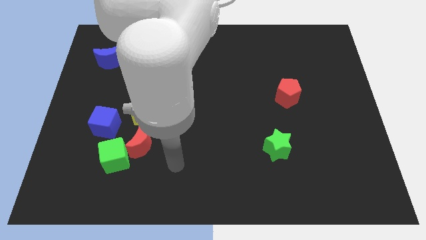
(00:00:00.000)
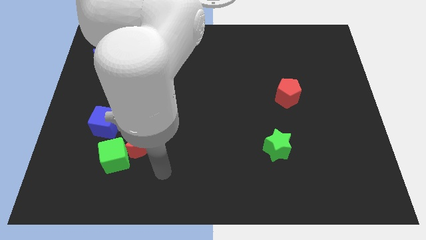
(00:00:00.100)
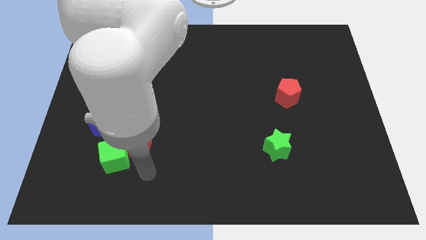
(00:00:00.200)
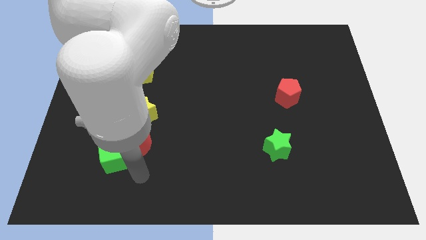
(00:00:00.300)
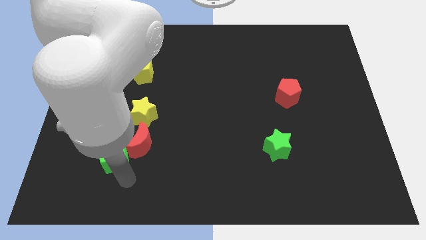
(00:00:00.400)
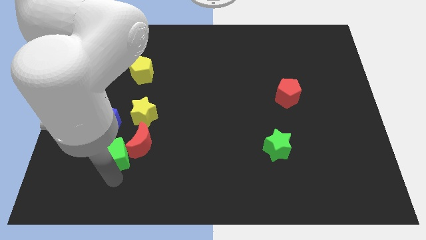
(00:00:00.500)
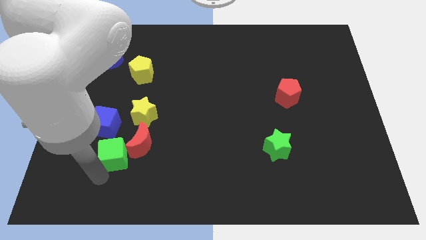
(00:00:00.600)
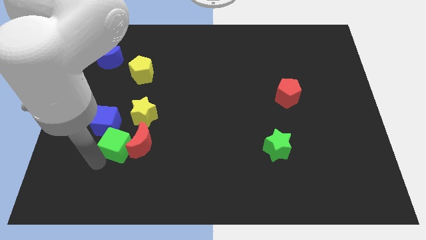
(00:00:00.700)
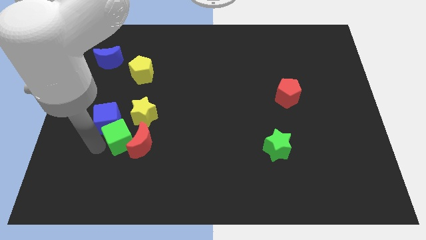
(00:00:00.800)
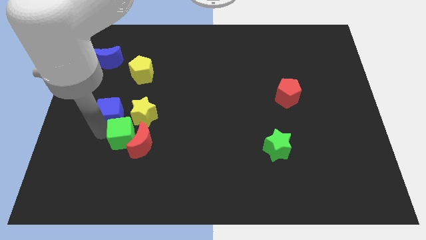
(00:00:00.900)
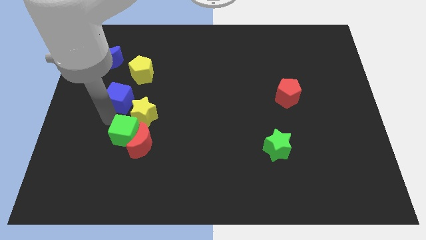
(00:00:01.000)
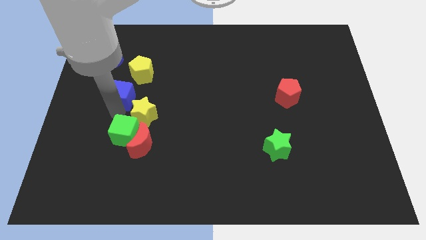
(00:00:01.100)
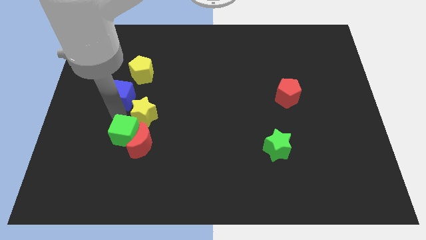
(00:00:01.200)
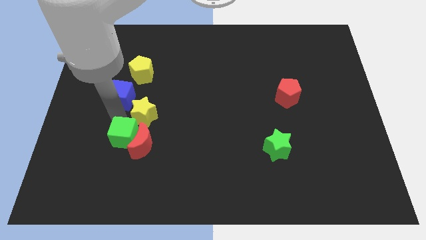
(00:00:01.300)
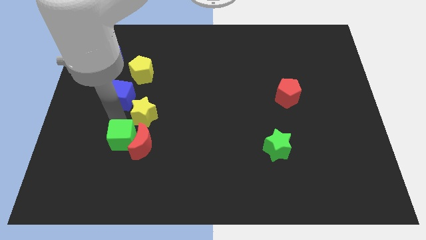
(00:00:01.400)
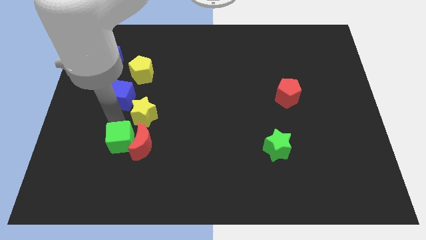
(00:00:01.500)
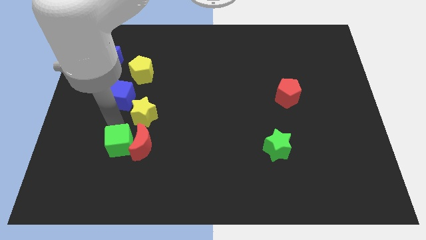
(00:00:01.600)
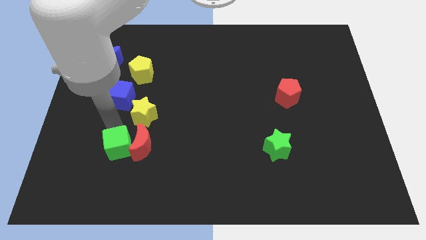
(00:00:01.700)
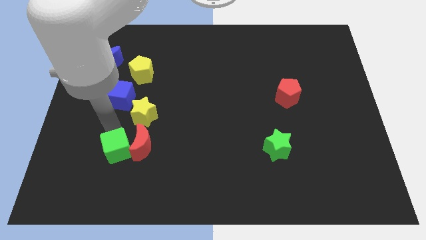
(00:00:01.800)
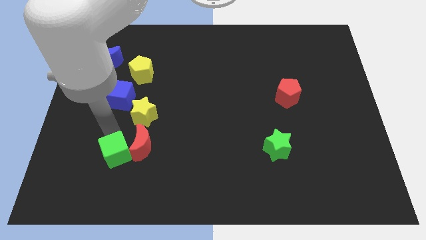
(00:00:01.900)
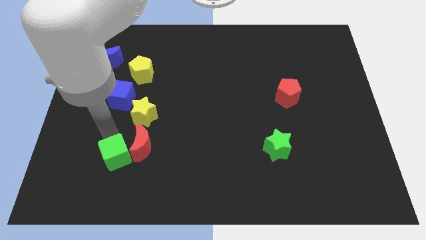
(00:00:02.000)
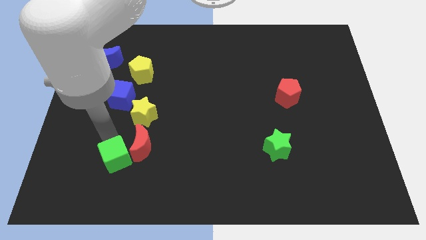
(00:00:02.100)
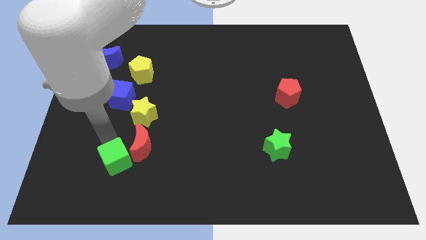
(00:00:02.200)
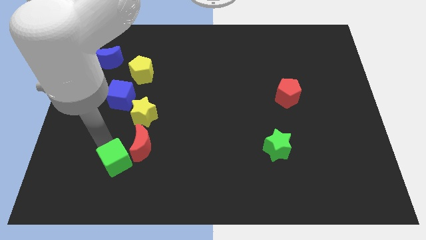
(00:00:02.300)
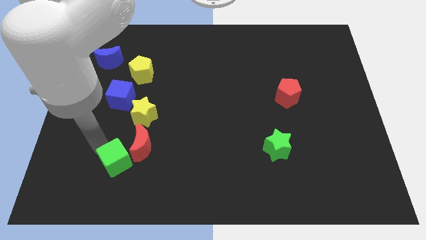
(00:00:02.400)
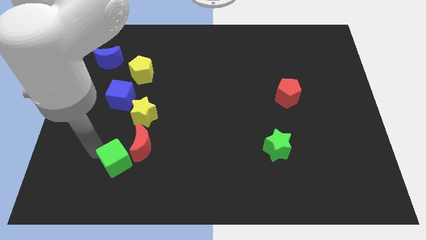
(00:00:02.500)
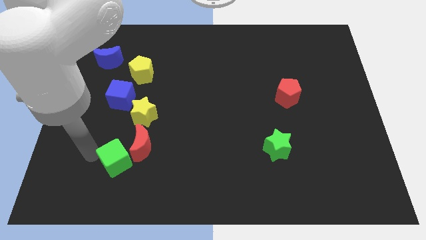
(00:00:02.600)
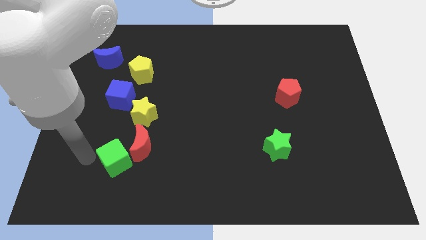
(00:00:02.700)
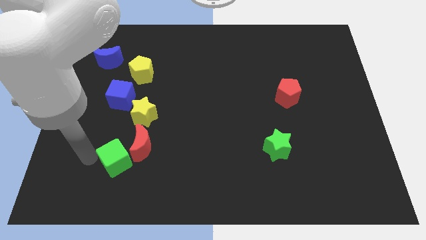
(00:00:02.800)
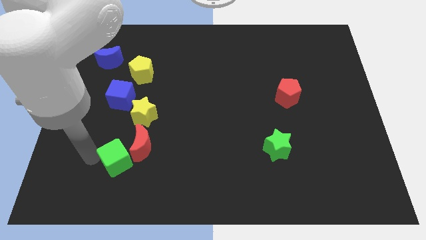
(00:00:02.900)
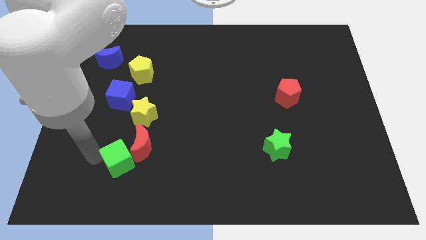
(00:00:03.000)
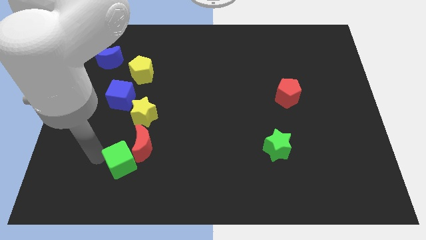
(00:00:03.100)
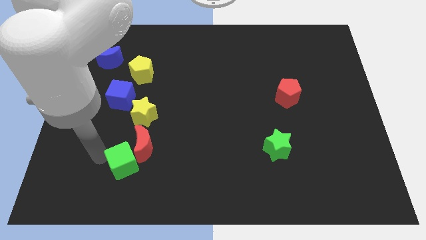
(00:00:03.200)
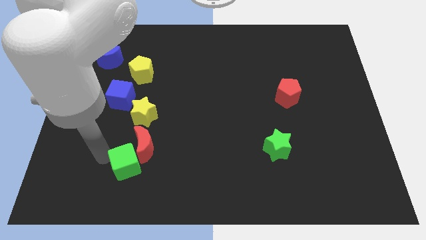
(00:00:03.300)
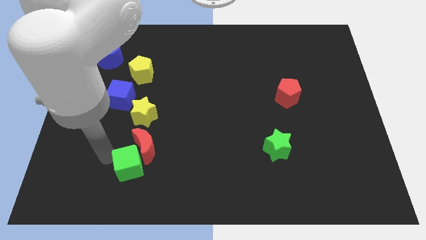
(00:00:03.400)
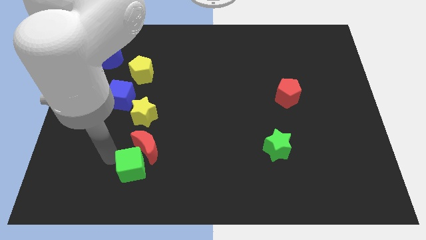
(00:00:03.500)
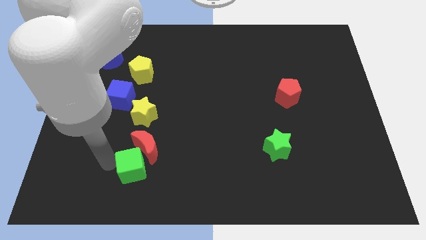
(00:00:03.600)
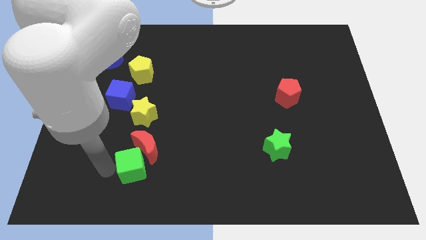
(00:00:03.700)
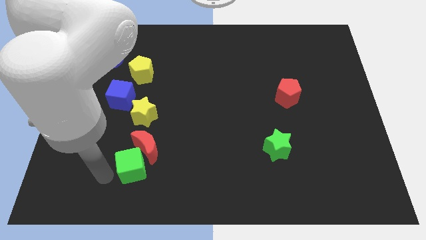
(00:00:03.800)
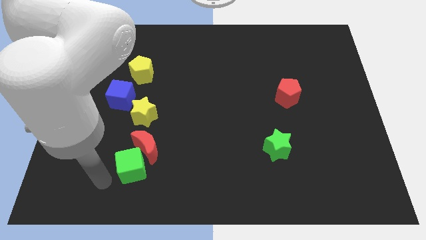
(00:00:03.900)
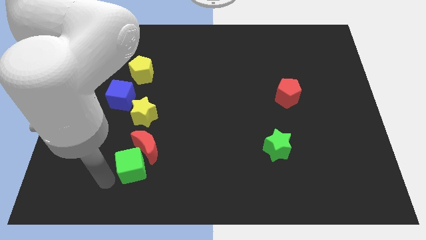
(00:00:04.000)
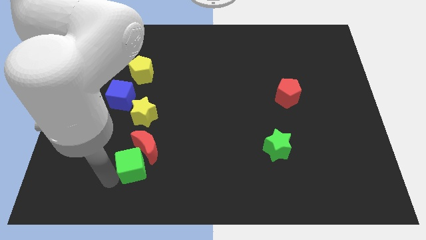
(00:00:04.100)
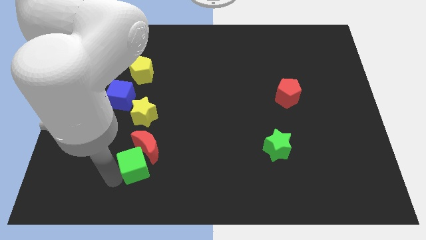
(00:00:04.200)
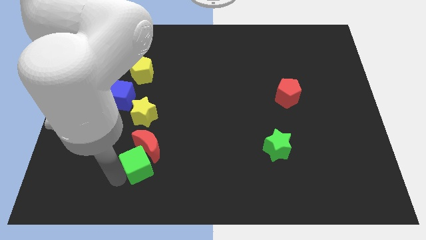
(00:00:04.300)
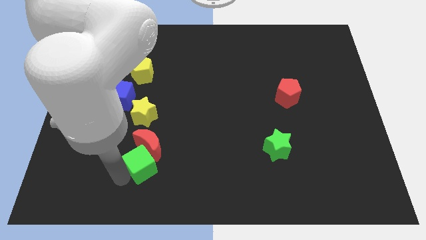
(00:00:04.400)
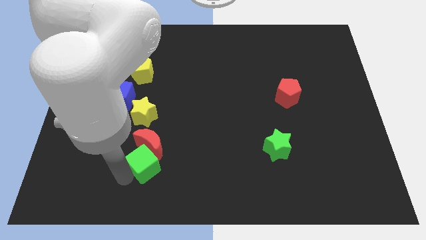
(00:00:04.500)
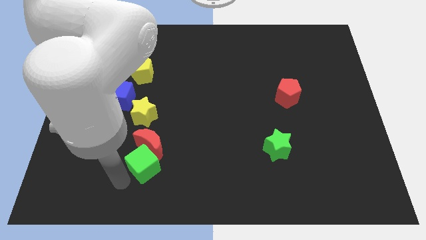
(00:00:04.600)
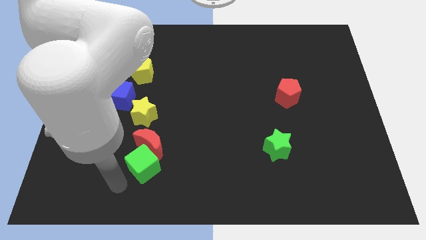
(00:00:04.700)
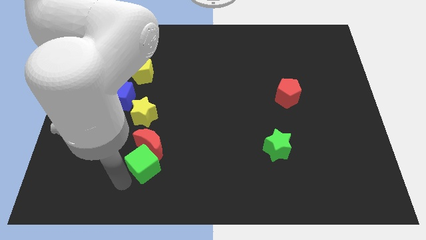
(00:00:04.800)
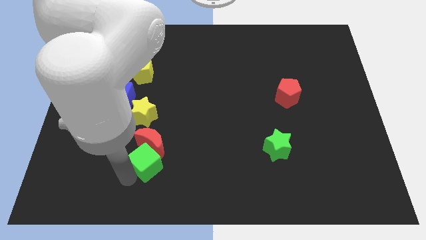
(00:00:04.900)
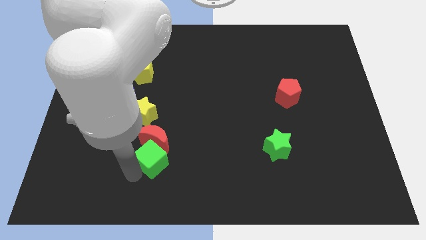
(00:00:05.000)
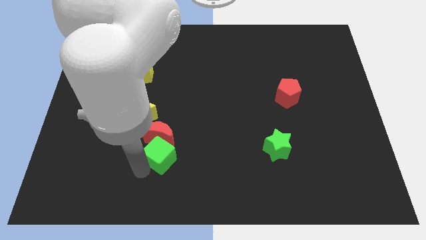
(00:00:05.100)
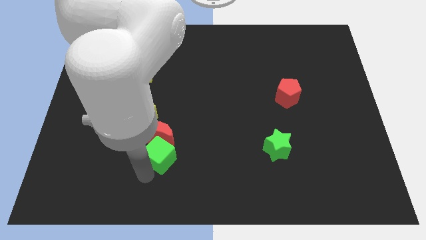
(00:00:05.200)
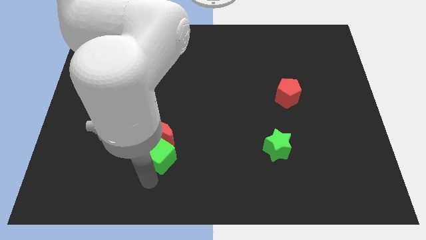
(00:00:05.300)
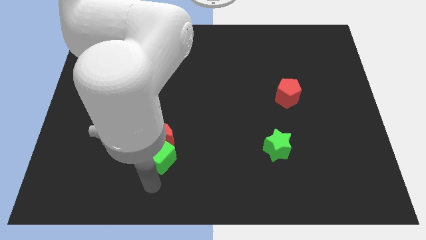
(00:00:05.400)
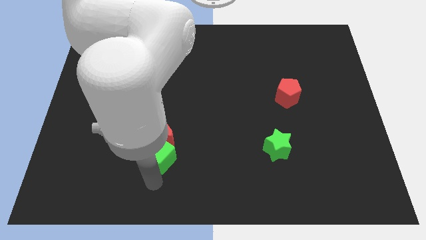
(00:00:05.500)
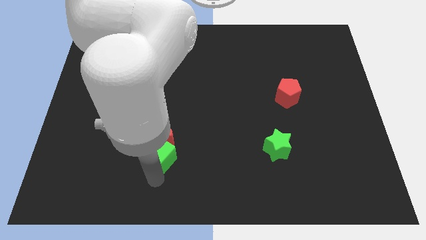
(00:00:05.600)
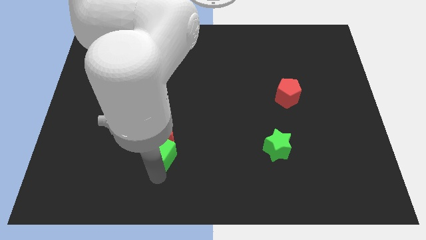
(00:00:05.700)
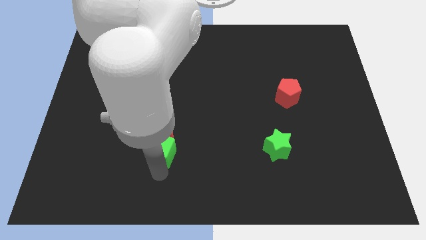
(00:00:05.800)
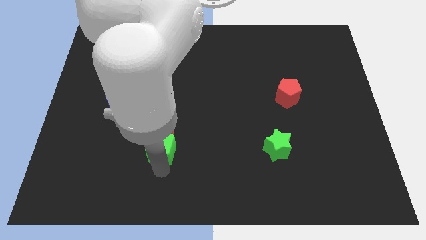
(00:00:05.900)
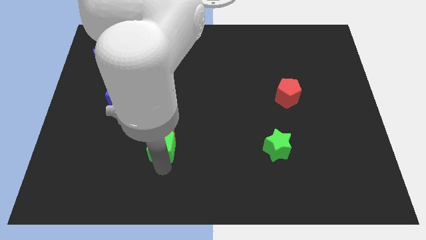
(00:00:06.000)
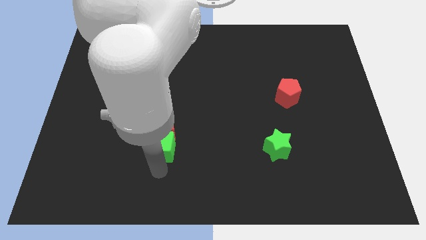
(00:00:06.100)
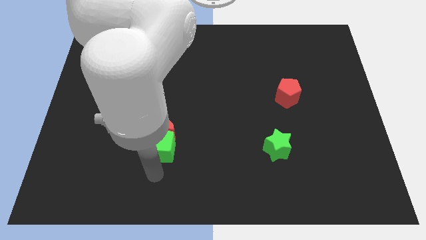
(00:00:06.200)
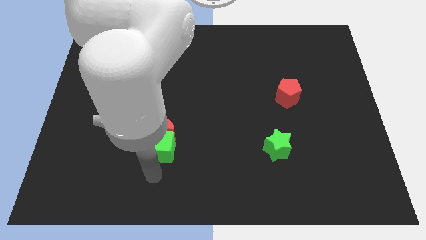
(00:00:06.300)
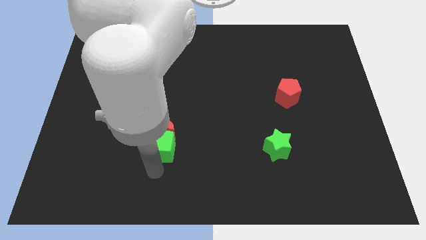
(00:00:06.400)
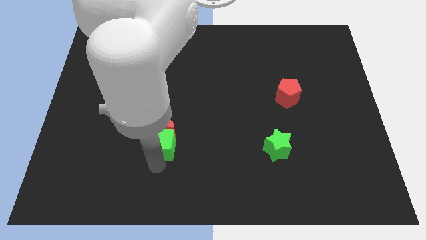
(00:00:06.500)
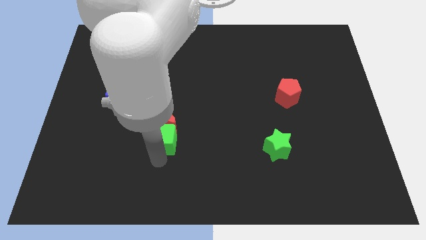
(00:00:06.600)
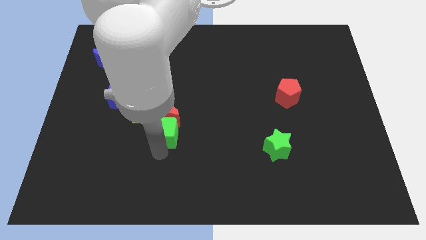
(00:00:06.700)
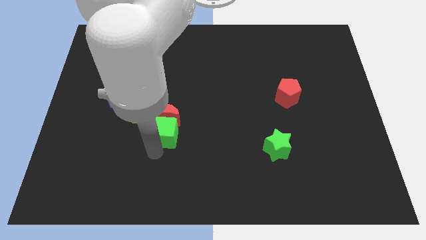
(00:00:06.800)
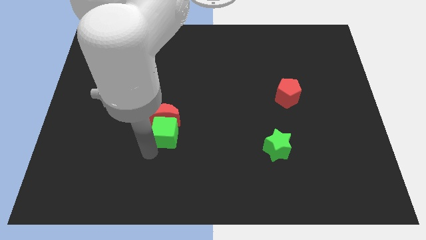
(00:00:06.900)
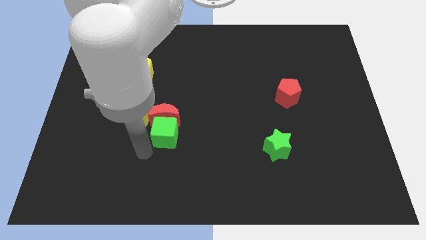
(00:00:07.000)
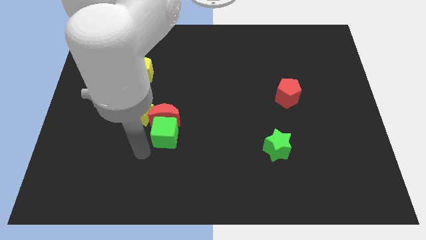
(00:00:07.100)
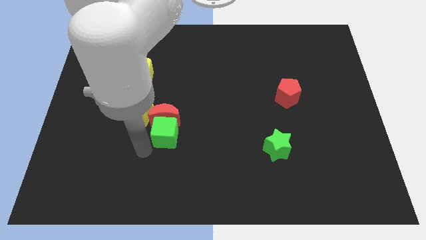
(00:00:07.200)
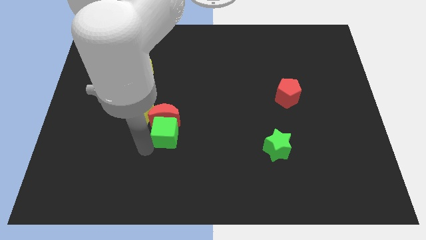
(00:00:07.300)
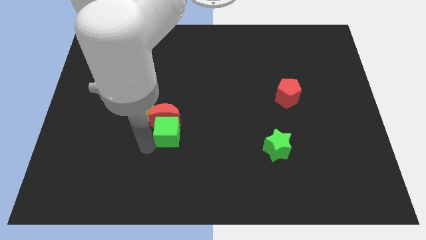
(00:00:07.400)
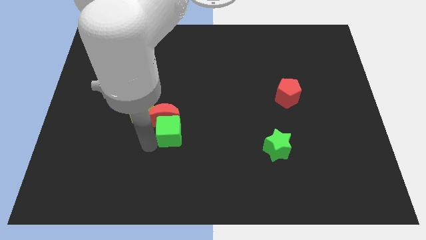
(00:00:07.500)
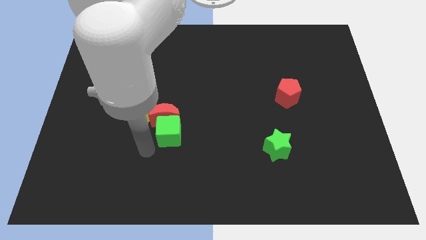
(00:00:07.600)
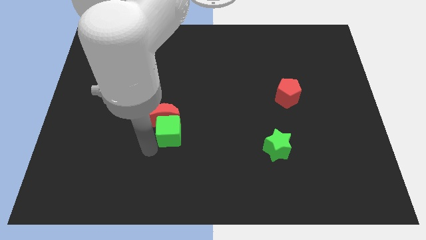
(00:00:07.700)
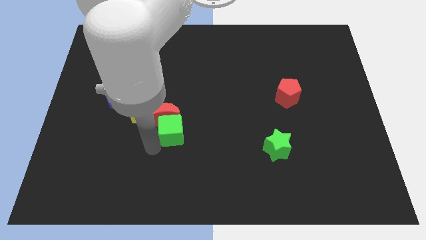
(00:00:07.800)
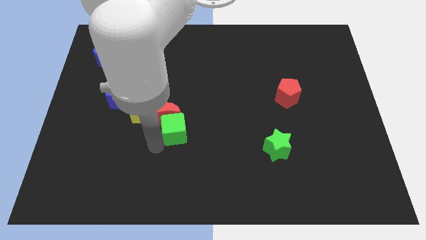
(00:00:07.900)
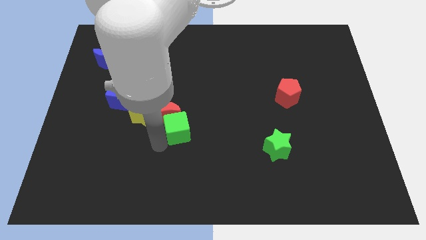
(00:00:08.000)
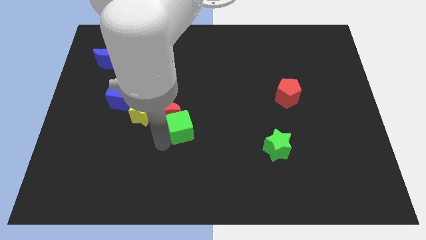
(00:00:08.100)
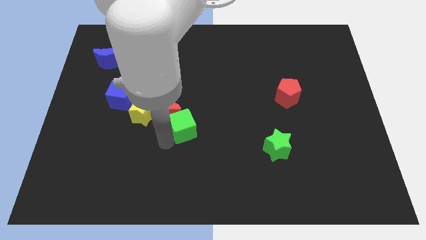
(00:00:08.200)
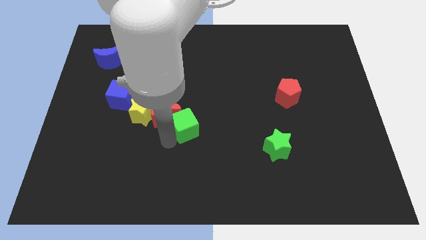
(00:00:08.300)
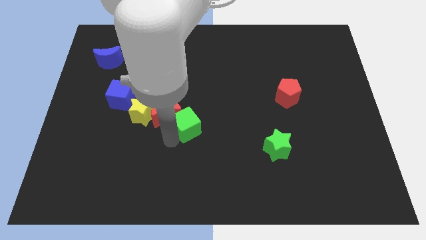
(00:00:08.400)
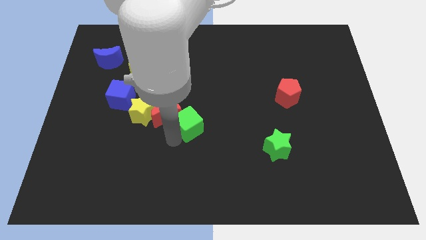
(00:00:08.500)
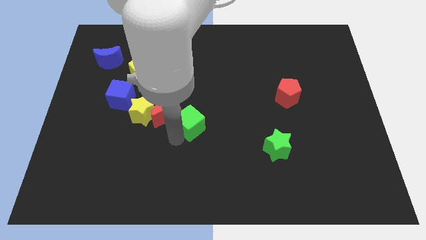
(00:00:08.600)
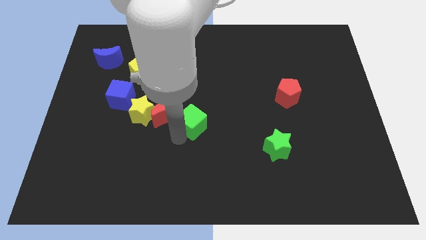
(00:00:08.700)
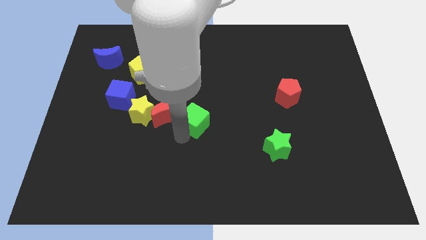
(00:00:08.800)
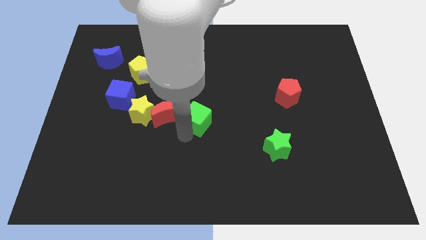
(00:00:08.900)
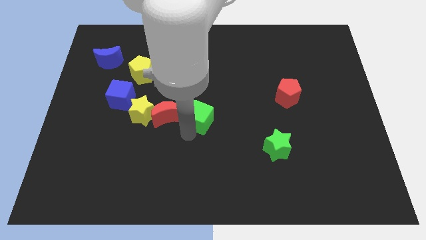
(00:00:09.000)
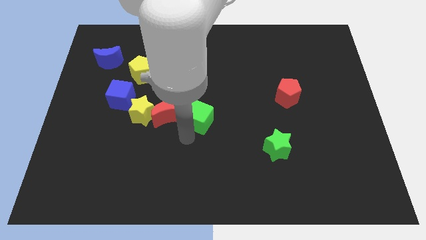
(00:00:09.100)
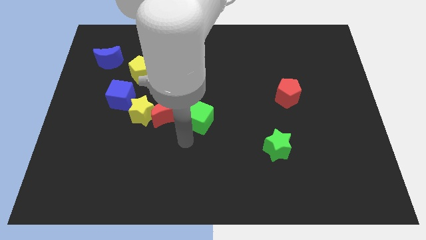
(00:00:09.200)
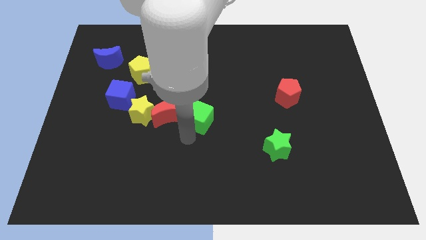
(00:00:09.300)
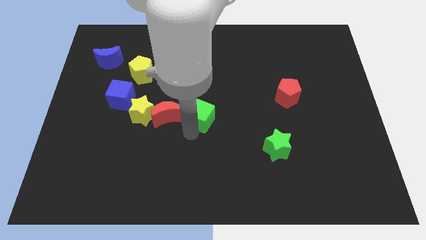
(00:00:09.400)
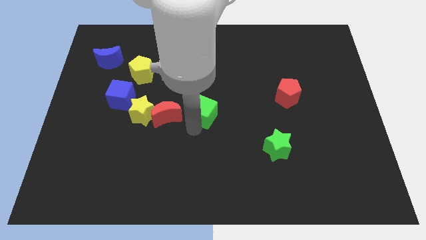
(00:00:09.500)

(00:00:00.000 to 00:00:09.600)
push the green cube upwards and right diagonally
